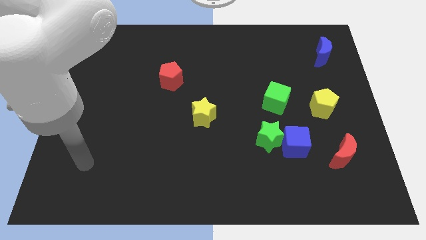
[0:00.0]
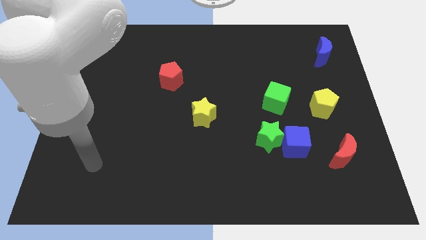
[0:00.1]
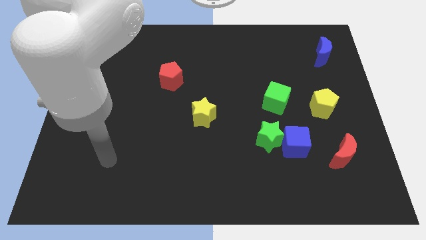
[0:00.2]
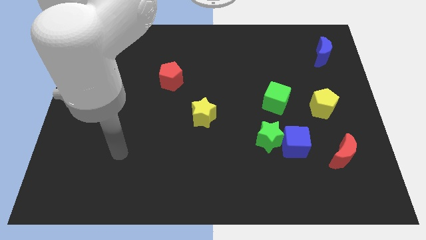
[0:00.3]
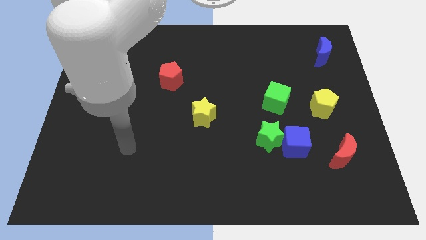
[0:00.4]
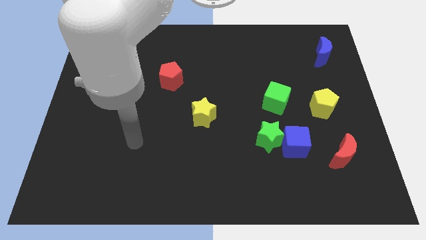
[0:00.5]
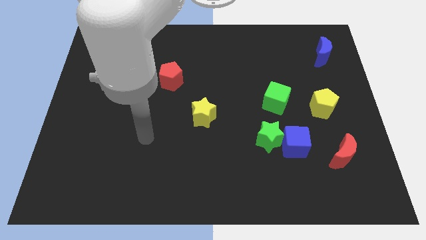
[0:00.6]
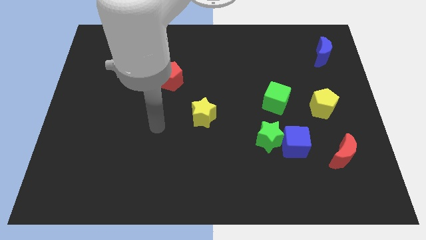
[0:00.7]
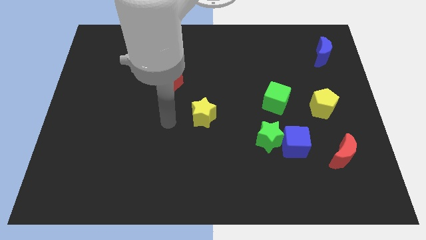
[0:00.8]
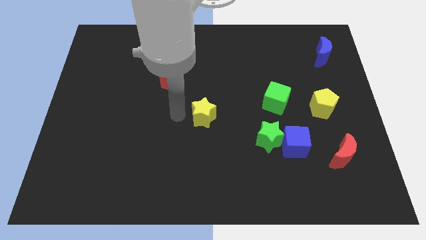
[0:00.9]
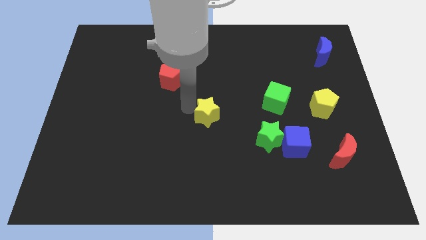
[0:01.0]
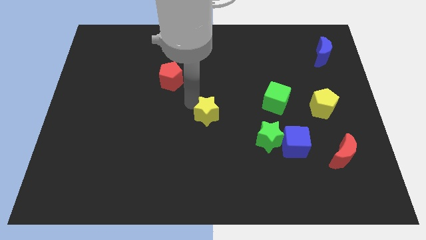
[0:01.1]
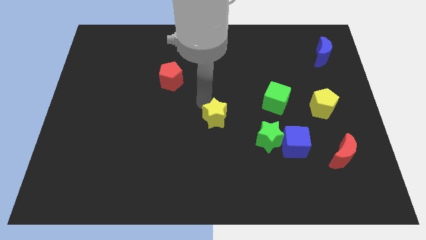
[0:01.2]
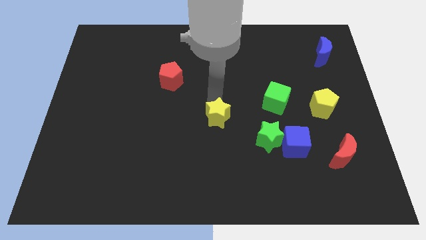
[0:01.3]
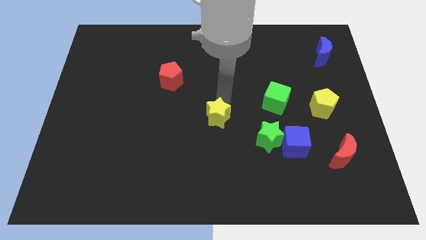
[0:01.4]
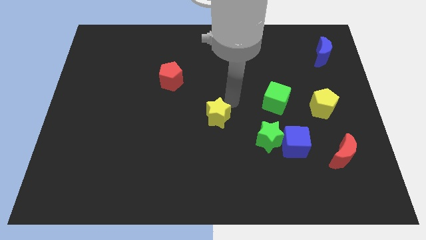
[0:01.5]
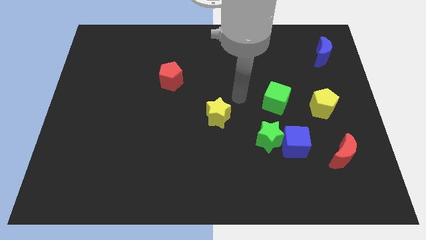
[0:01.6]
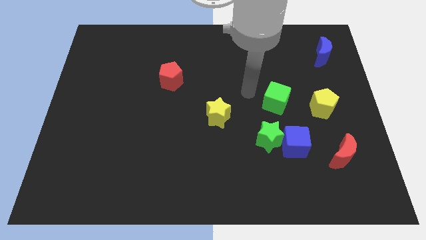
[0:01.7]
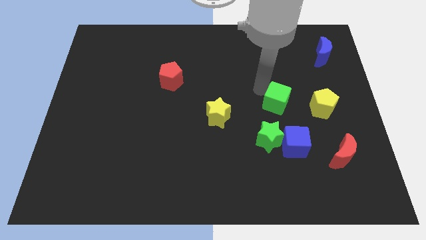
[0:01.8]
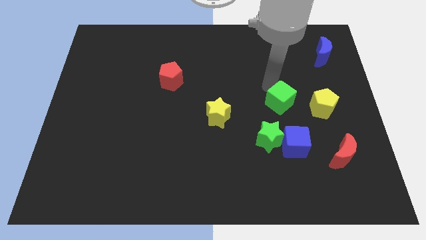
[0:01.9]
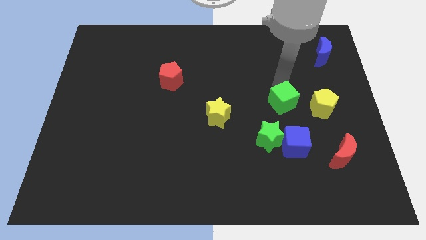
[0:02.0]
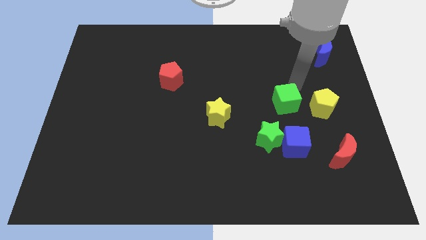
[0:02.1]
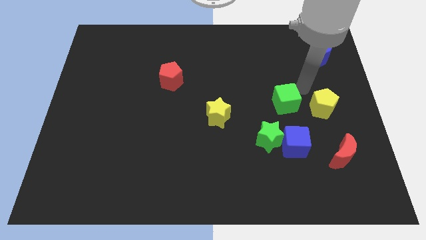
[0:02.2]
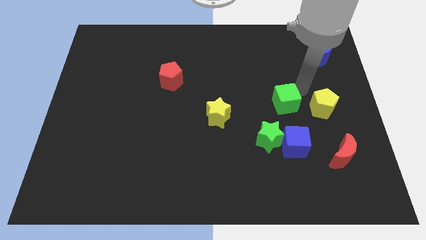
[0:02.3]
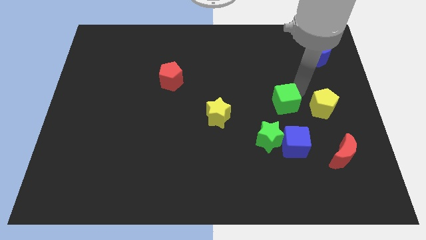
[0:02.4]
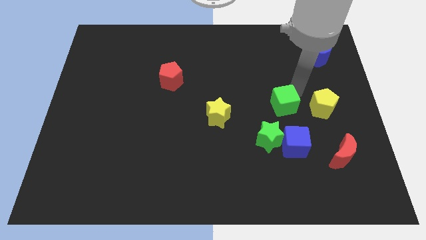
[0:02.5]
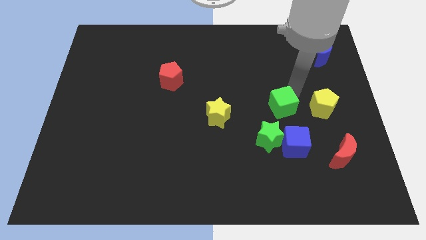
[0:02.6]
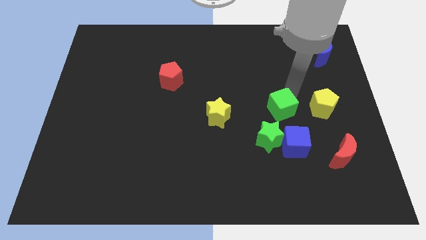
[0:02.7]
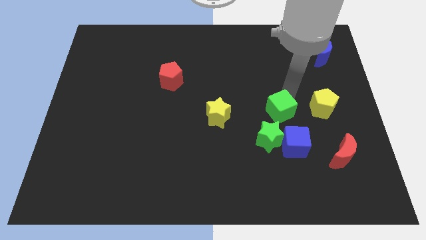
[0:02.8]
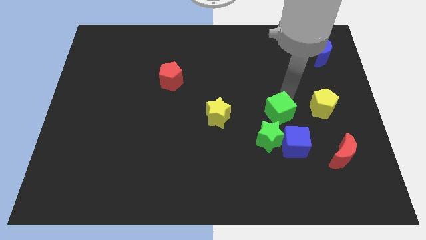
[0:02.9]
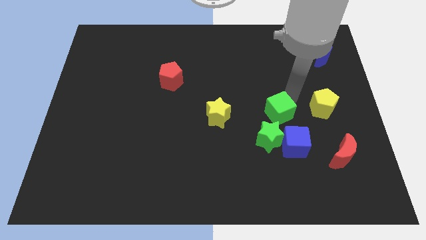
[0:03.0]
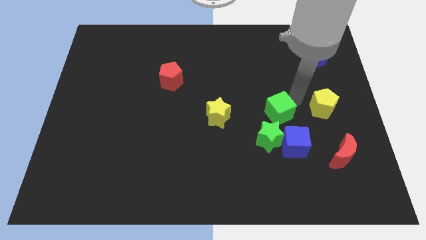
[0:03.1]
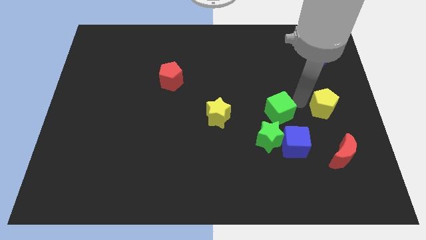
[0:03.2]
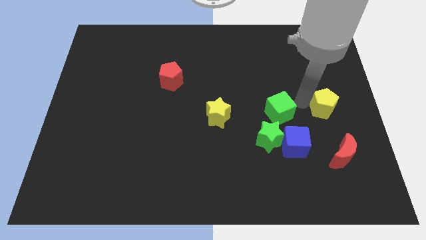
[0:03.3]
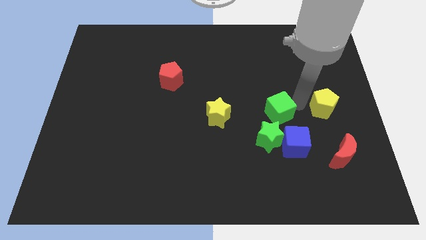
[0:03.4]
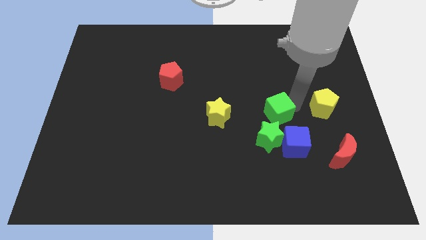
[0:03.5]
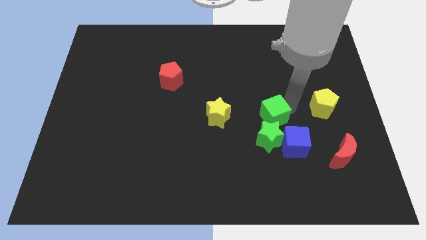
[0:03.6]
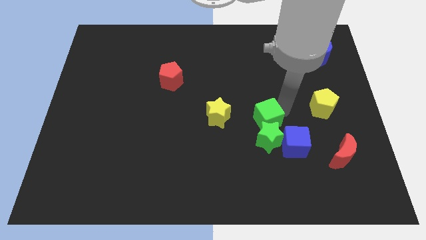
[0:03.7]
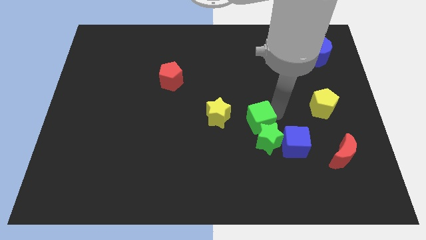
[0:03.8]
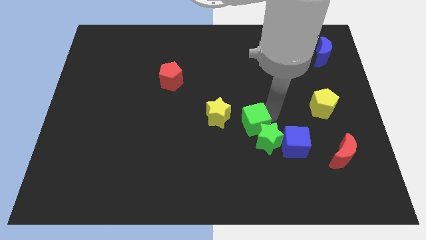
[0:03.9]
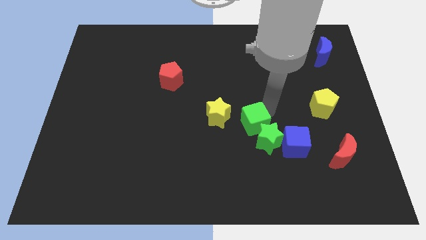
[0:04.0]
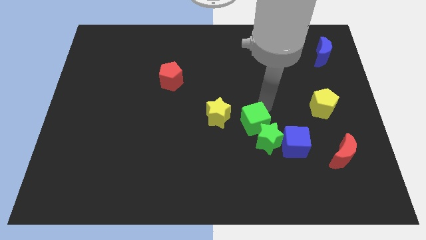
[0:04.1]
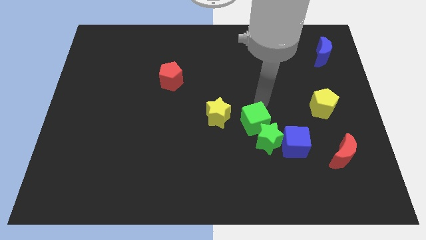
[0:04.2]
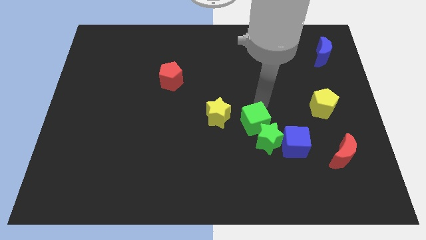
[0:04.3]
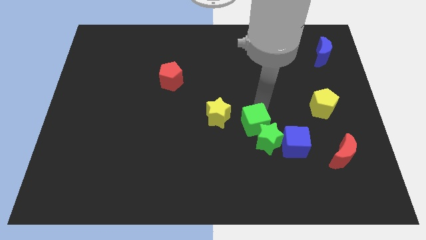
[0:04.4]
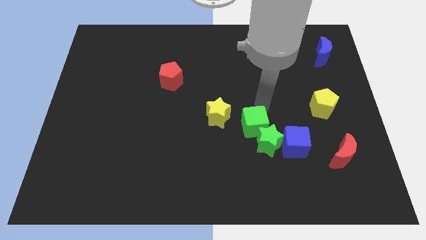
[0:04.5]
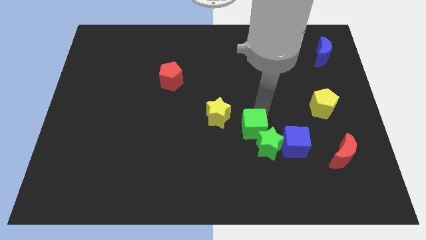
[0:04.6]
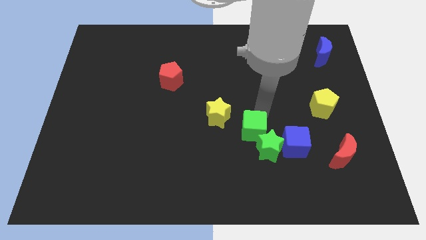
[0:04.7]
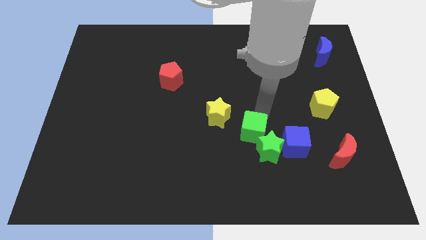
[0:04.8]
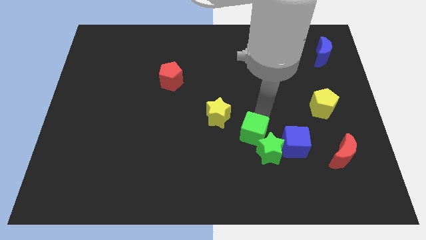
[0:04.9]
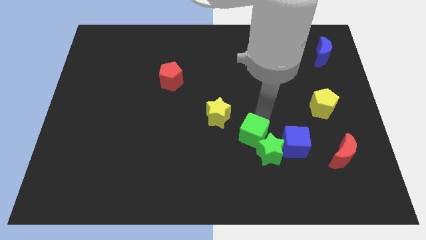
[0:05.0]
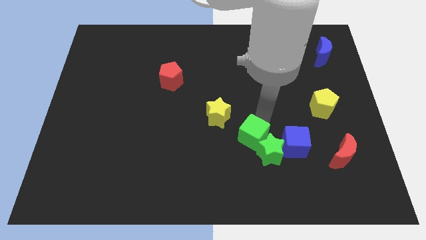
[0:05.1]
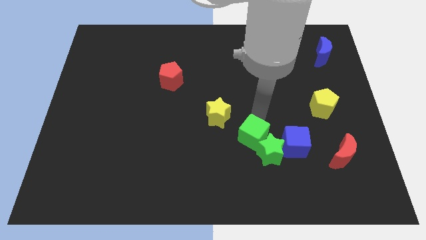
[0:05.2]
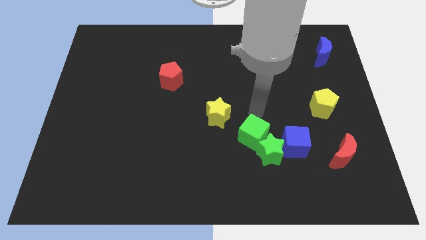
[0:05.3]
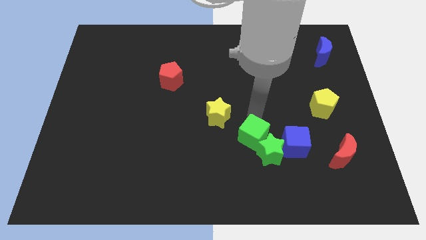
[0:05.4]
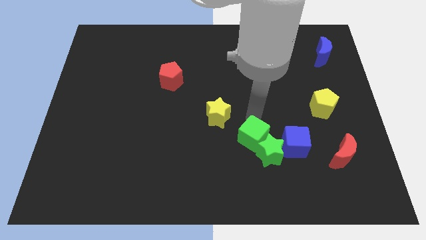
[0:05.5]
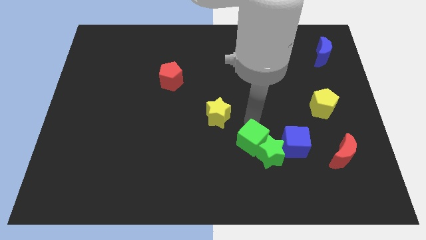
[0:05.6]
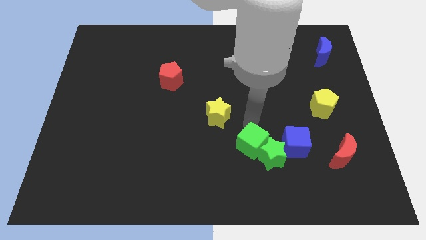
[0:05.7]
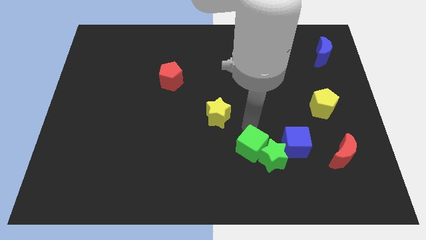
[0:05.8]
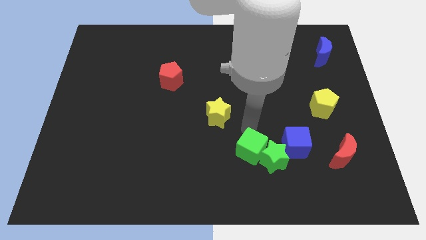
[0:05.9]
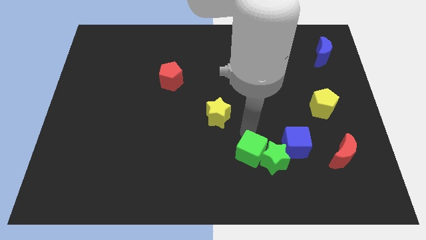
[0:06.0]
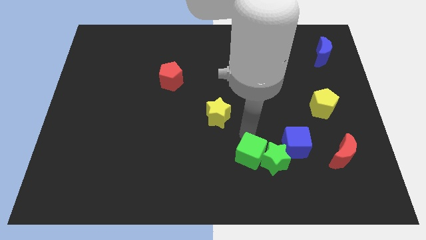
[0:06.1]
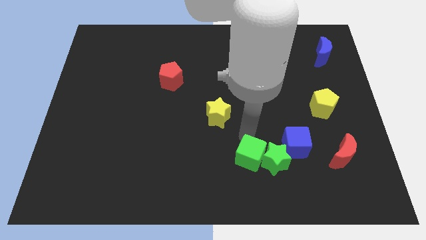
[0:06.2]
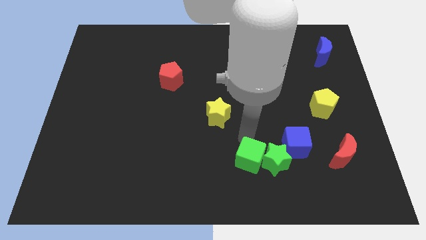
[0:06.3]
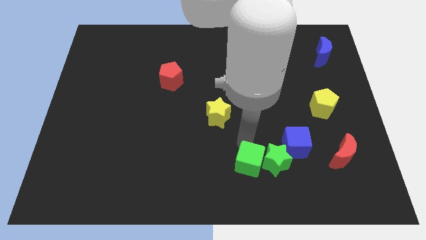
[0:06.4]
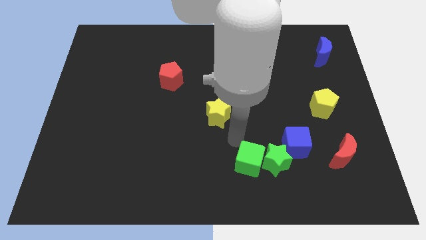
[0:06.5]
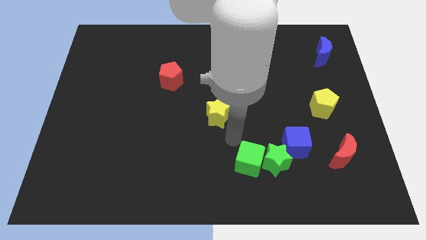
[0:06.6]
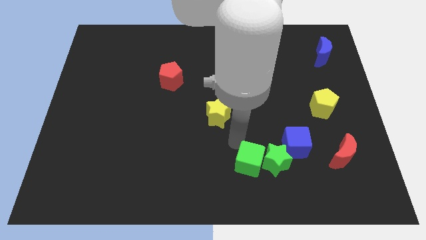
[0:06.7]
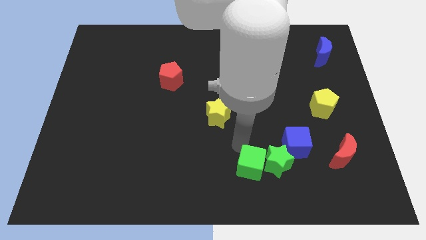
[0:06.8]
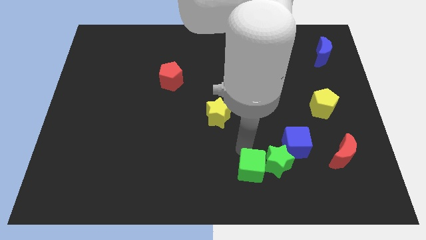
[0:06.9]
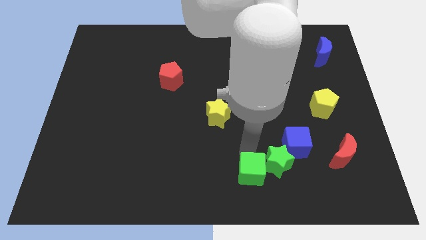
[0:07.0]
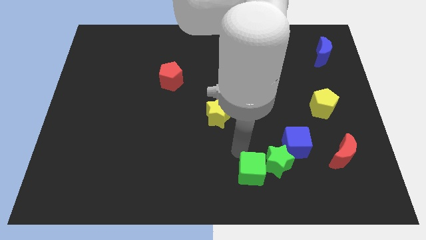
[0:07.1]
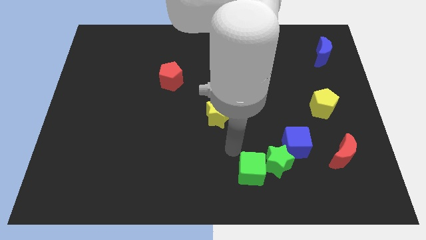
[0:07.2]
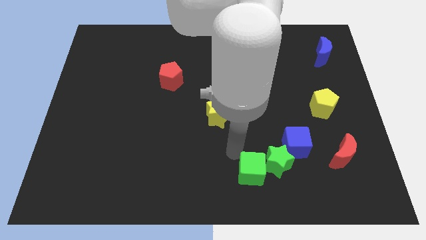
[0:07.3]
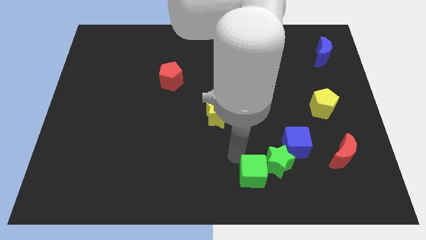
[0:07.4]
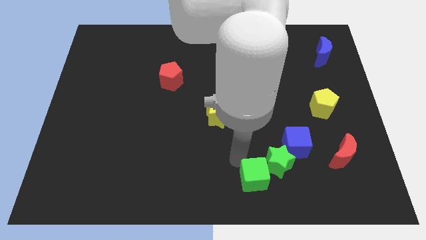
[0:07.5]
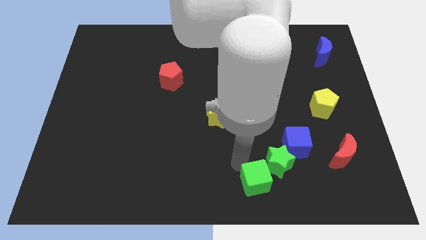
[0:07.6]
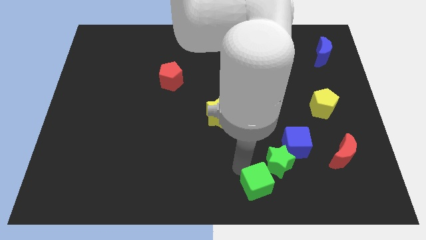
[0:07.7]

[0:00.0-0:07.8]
push the green cube below the green star
